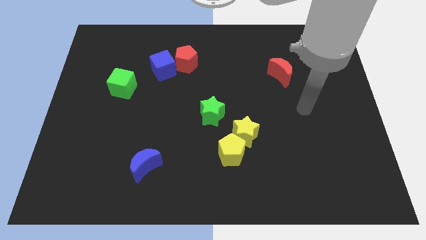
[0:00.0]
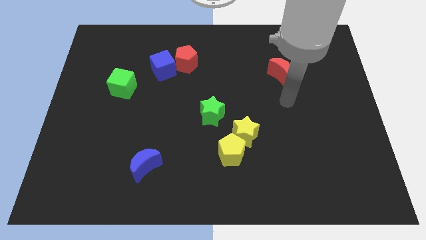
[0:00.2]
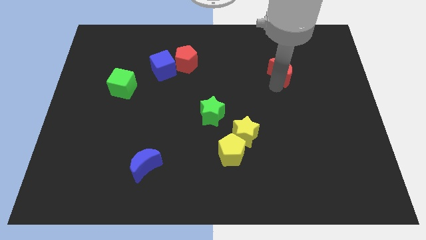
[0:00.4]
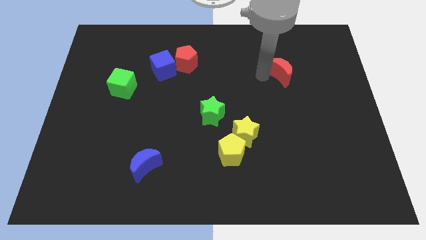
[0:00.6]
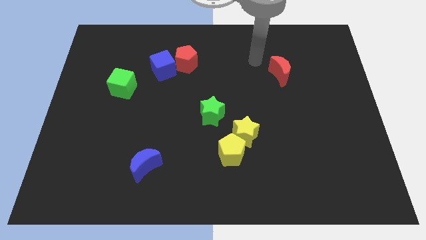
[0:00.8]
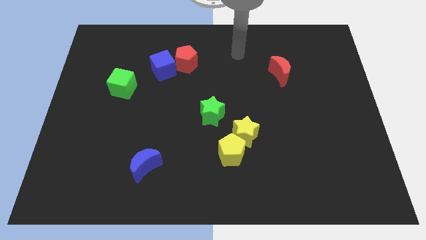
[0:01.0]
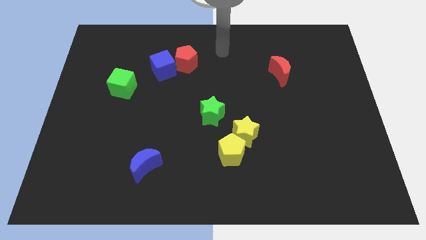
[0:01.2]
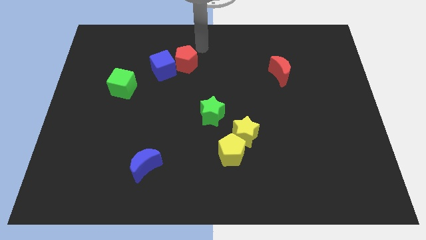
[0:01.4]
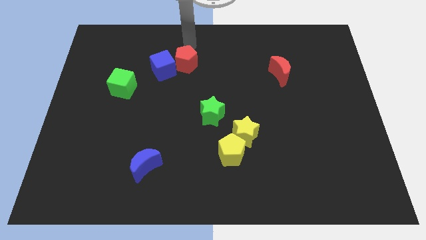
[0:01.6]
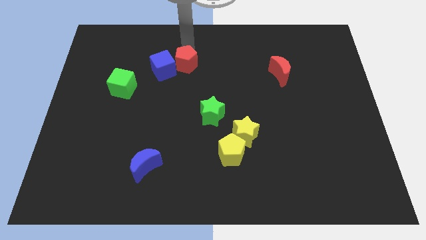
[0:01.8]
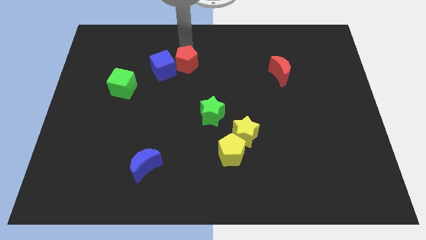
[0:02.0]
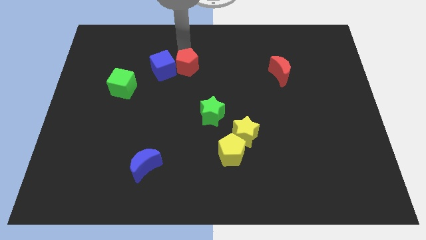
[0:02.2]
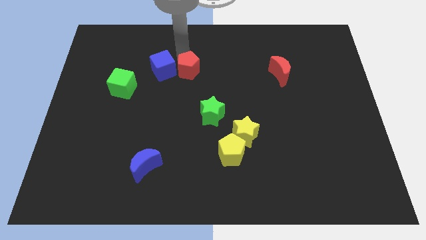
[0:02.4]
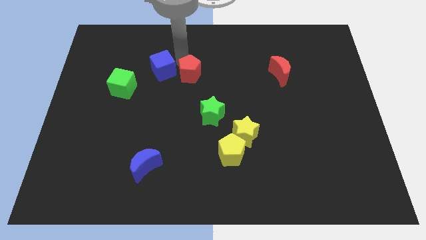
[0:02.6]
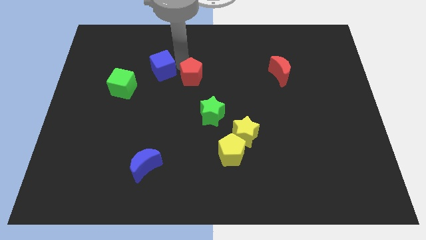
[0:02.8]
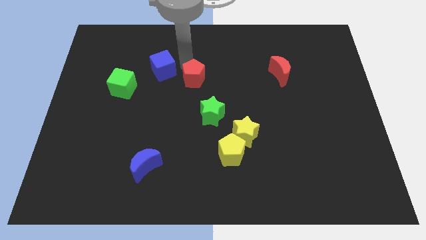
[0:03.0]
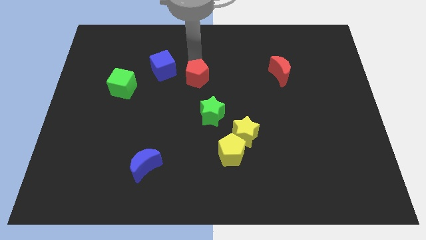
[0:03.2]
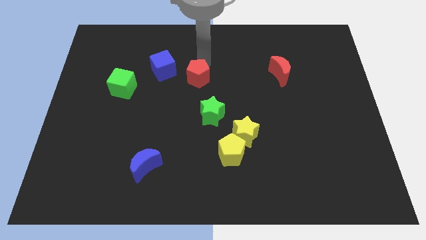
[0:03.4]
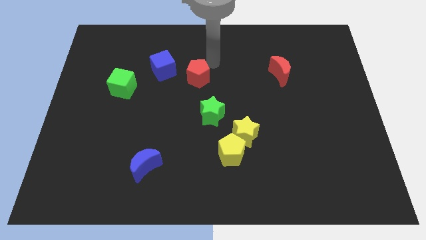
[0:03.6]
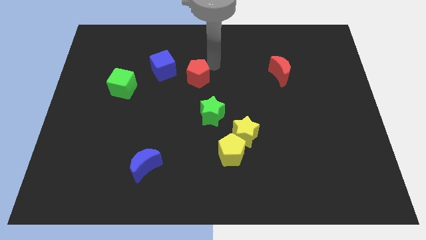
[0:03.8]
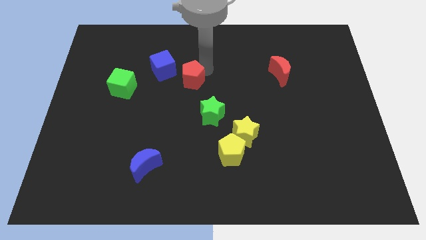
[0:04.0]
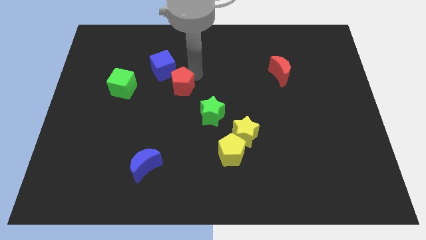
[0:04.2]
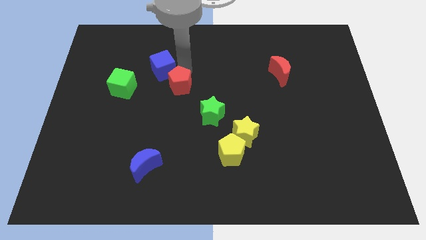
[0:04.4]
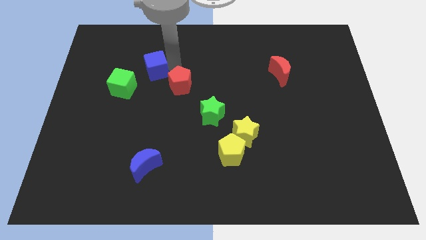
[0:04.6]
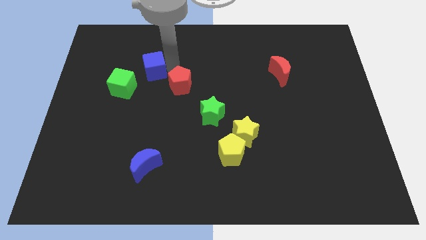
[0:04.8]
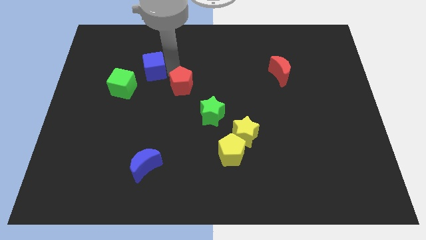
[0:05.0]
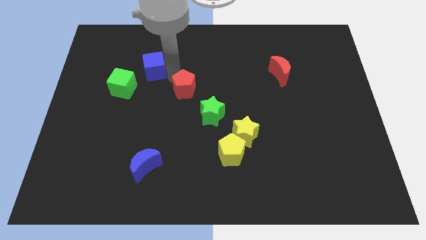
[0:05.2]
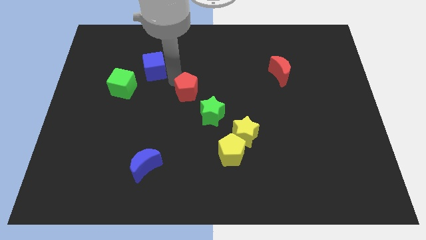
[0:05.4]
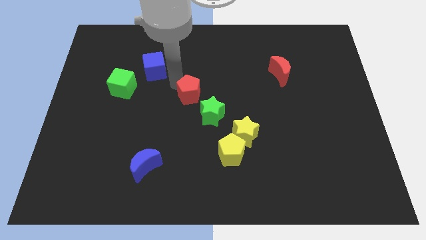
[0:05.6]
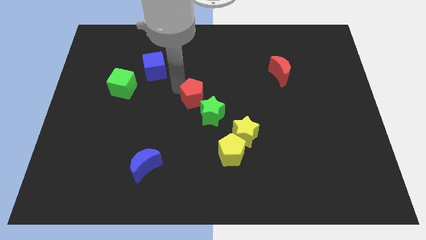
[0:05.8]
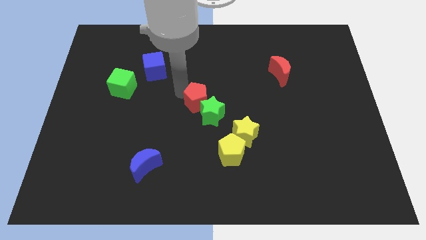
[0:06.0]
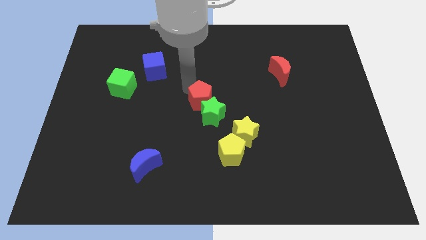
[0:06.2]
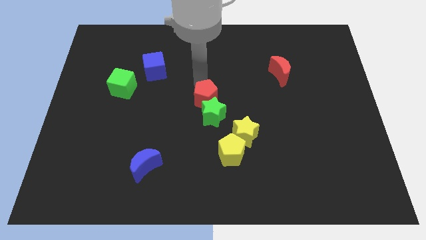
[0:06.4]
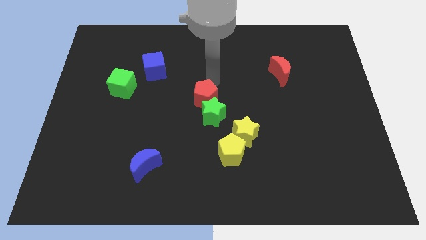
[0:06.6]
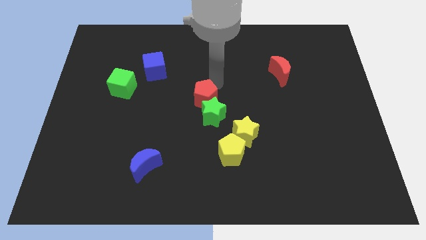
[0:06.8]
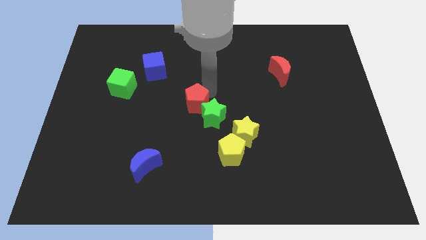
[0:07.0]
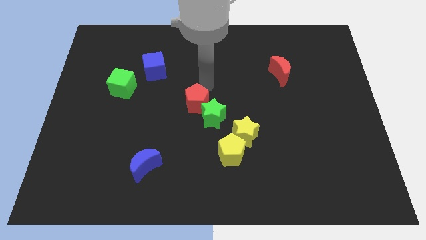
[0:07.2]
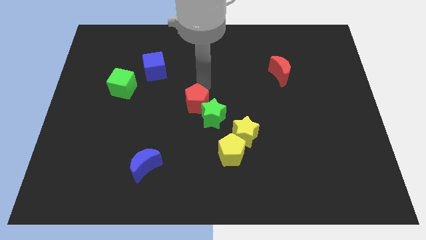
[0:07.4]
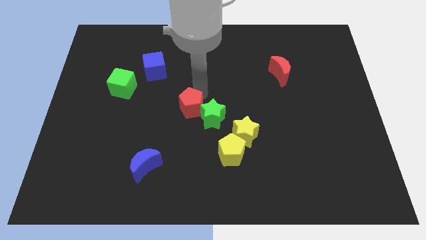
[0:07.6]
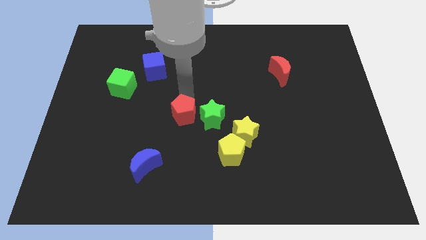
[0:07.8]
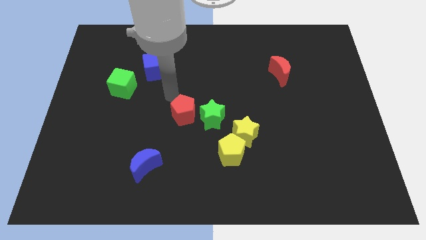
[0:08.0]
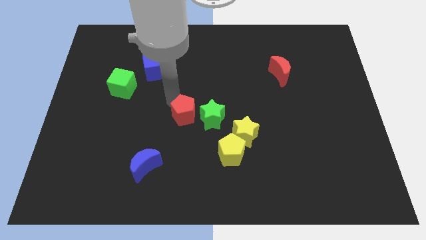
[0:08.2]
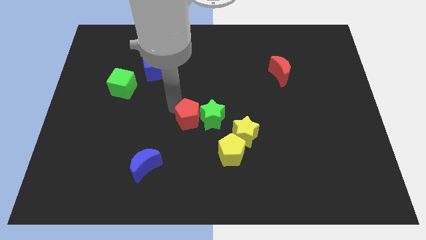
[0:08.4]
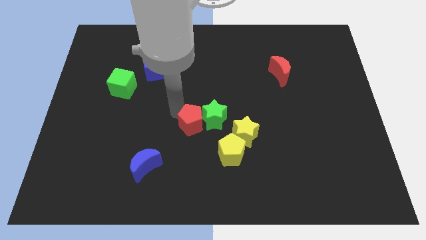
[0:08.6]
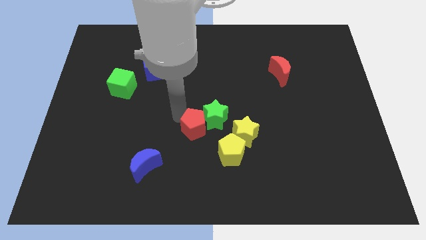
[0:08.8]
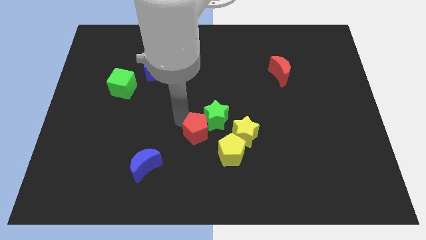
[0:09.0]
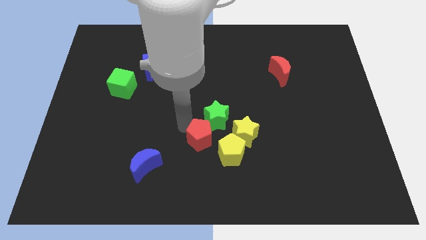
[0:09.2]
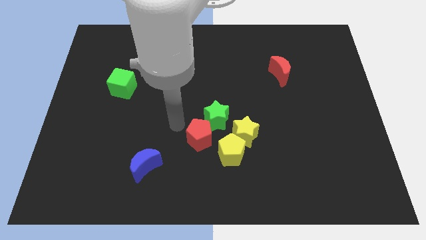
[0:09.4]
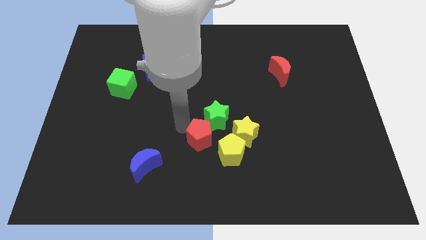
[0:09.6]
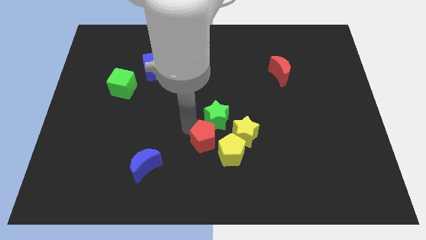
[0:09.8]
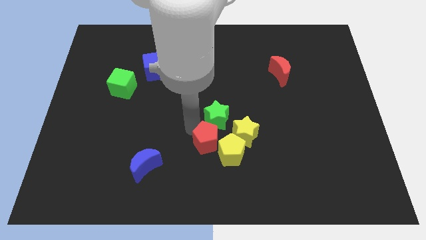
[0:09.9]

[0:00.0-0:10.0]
move the red pentagon to the yellow pentagon

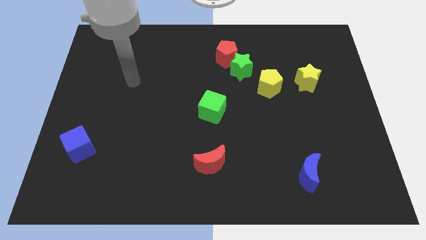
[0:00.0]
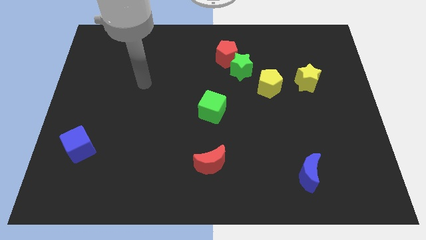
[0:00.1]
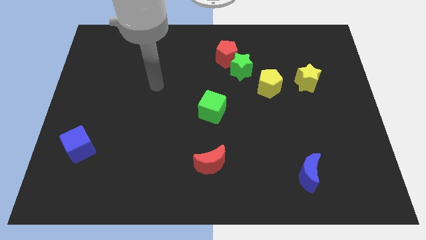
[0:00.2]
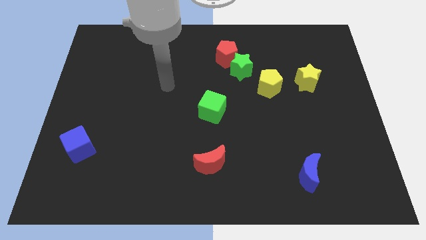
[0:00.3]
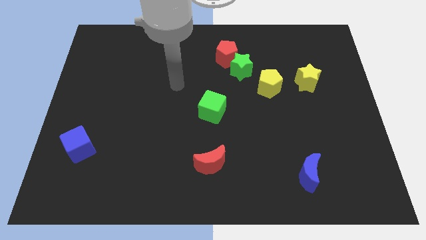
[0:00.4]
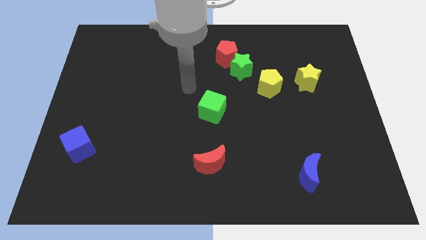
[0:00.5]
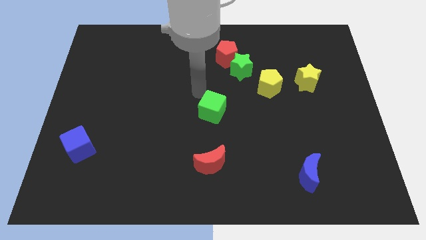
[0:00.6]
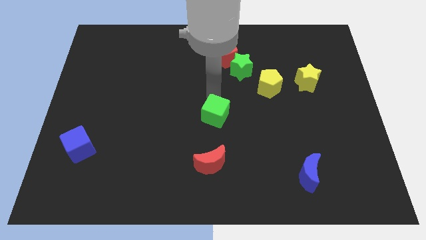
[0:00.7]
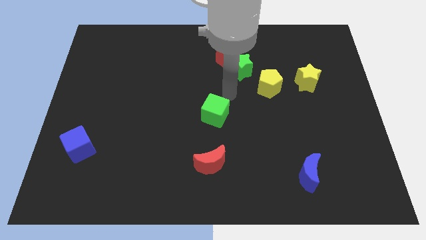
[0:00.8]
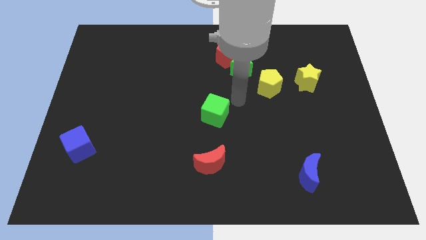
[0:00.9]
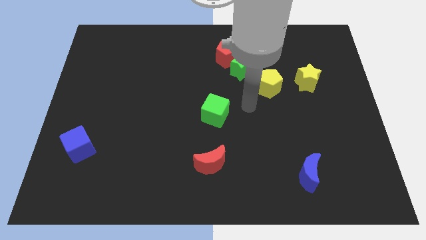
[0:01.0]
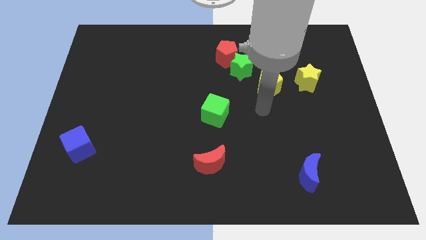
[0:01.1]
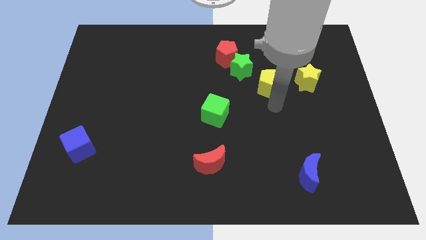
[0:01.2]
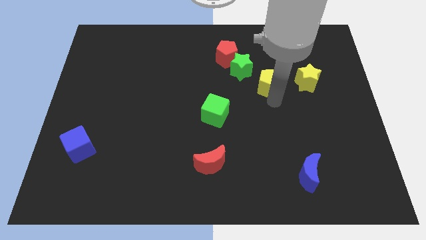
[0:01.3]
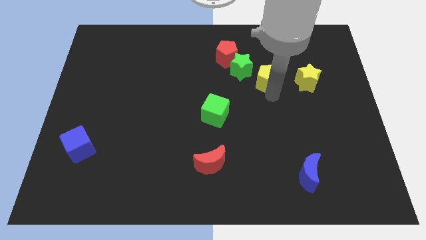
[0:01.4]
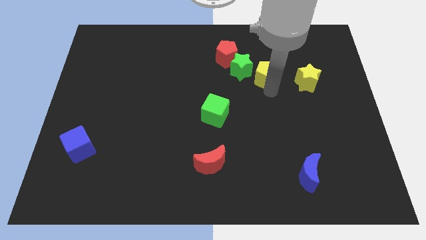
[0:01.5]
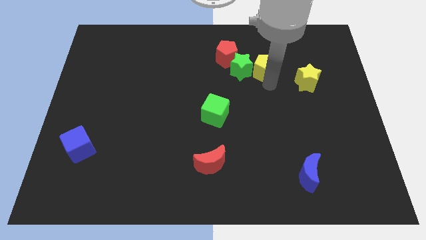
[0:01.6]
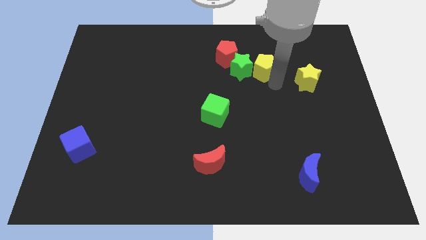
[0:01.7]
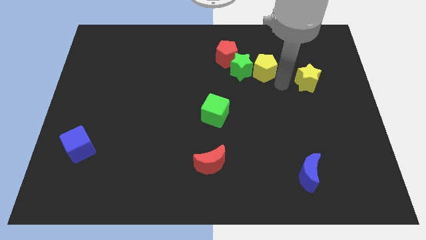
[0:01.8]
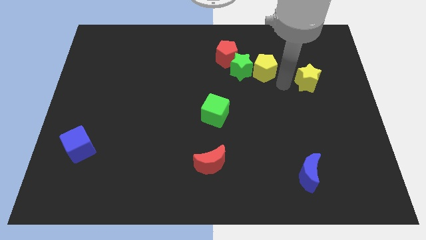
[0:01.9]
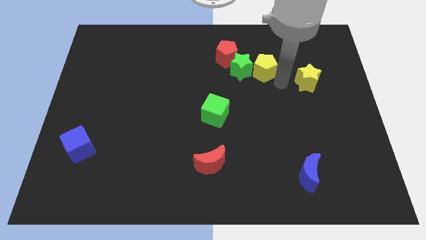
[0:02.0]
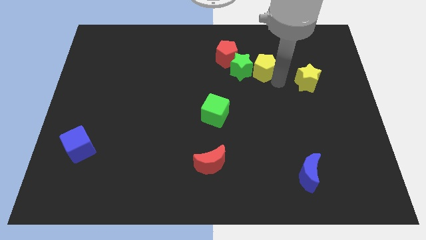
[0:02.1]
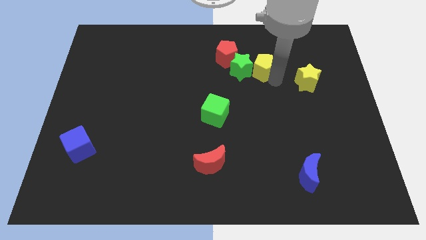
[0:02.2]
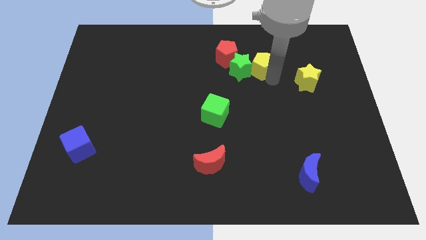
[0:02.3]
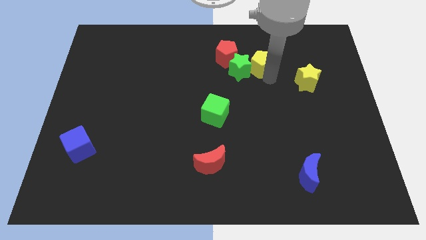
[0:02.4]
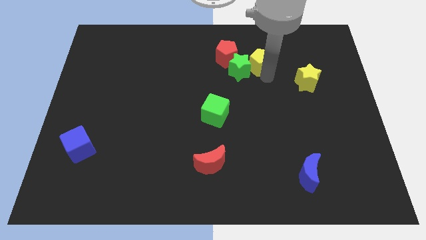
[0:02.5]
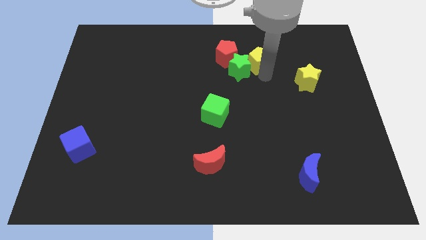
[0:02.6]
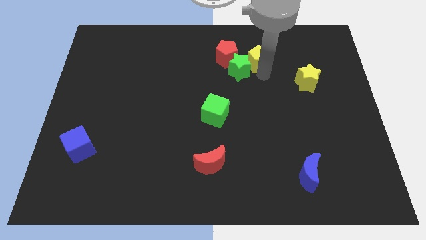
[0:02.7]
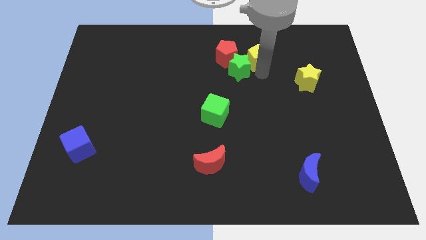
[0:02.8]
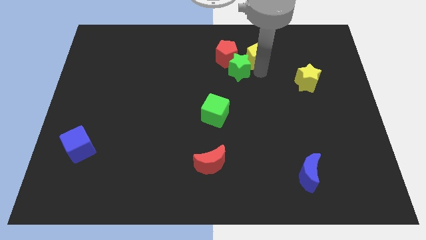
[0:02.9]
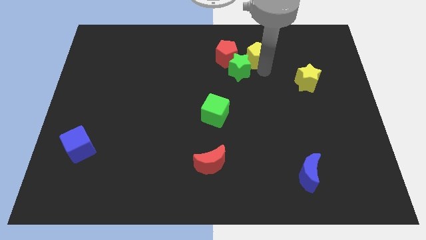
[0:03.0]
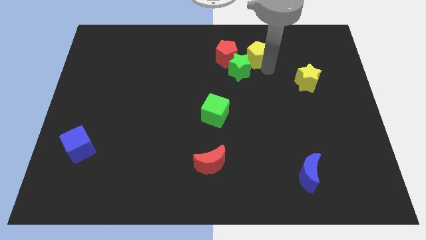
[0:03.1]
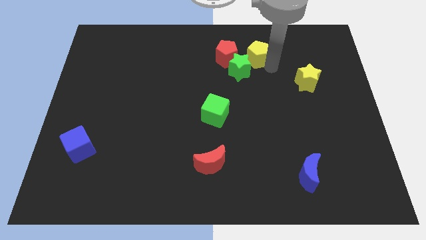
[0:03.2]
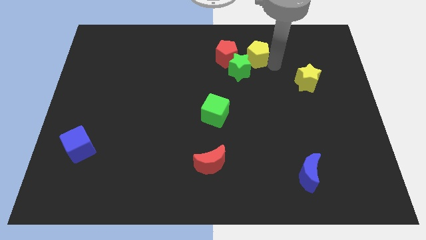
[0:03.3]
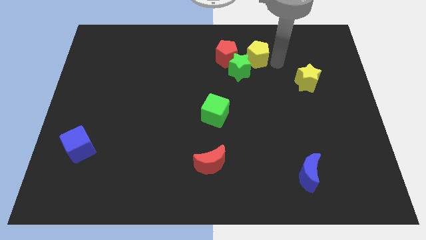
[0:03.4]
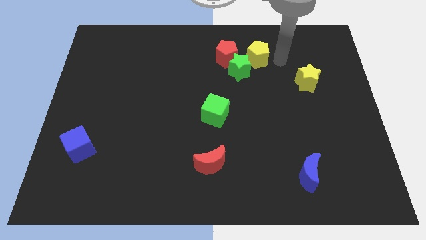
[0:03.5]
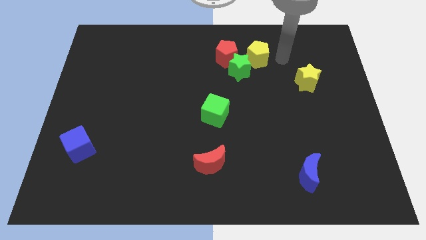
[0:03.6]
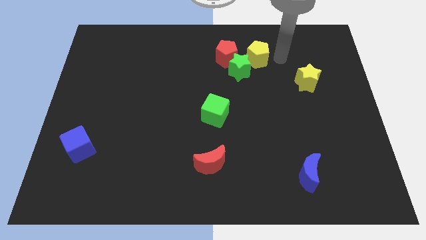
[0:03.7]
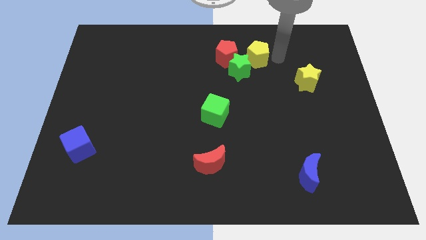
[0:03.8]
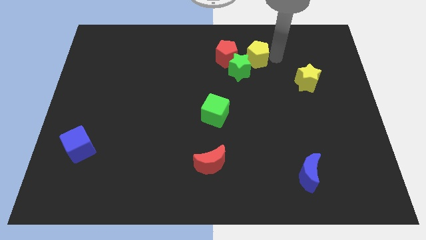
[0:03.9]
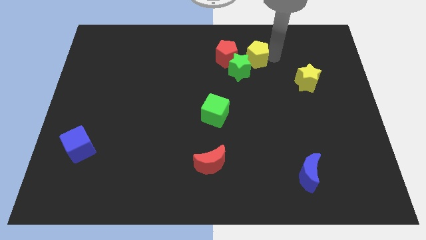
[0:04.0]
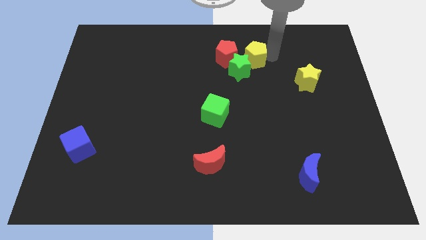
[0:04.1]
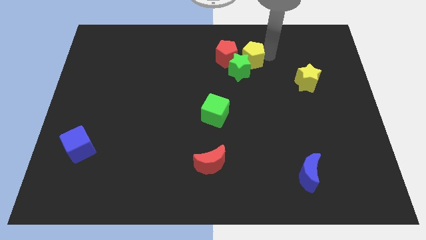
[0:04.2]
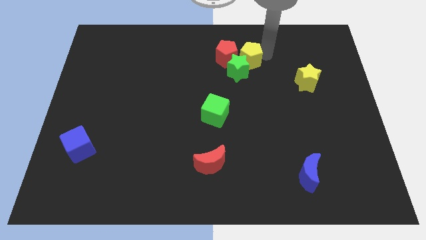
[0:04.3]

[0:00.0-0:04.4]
push the yellow pentagon next to the red pentagon
